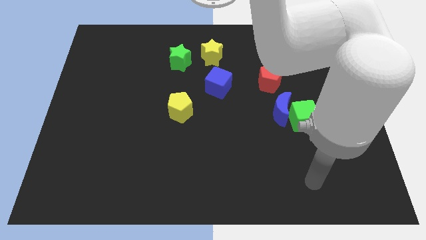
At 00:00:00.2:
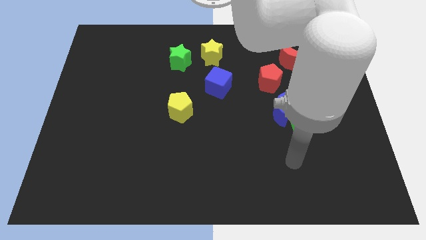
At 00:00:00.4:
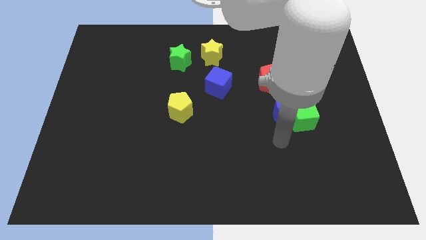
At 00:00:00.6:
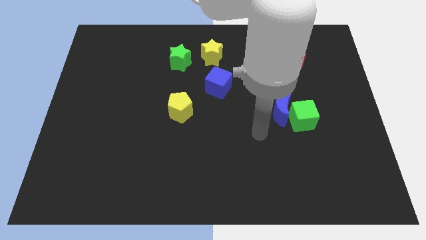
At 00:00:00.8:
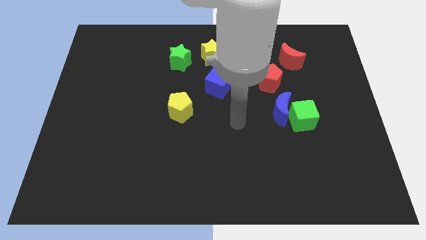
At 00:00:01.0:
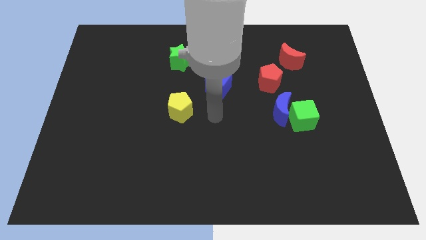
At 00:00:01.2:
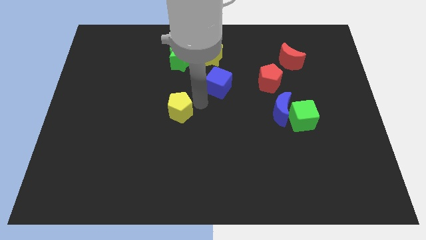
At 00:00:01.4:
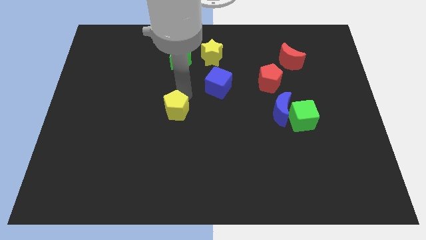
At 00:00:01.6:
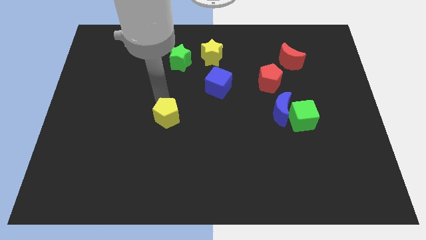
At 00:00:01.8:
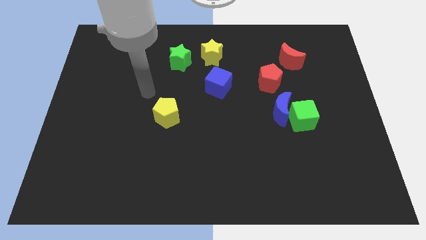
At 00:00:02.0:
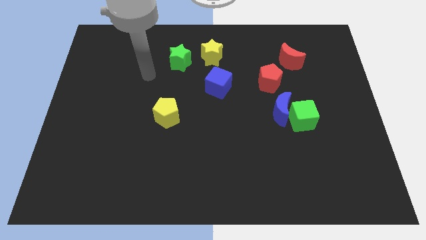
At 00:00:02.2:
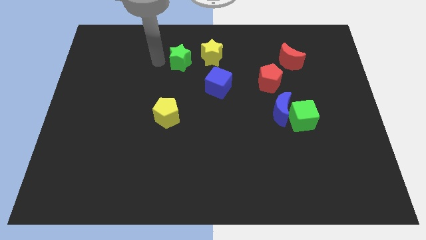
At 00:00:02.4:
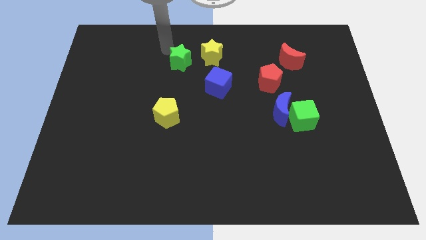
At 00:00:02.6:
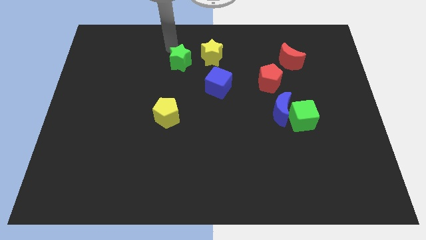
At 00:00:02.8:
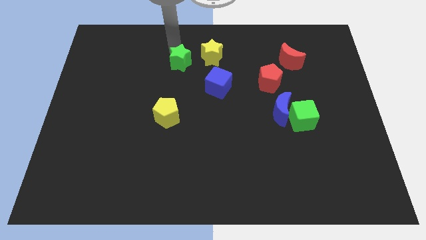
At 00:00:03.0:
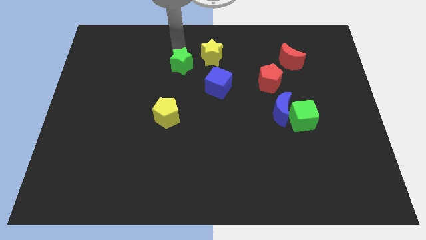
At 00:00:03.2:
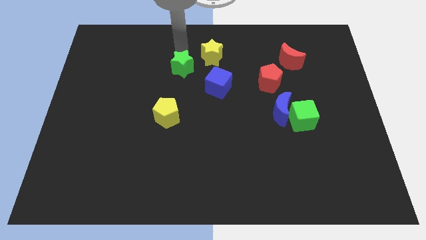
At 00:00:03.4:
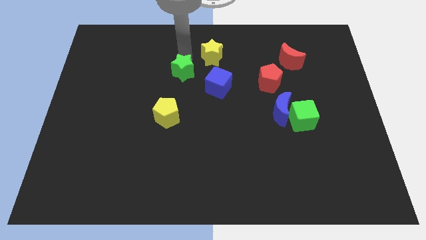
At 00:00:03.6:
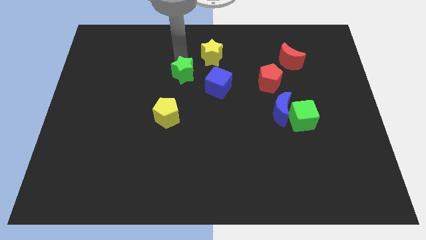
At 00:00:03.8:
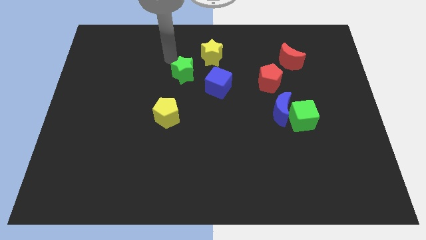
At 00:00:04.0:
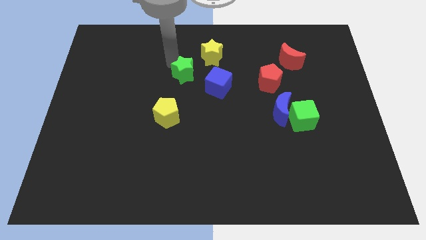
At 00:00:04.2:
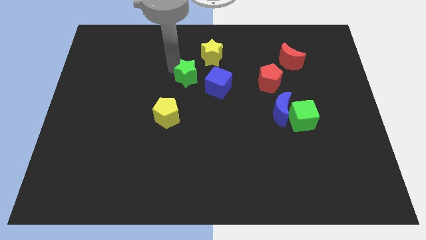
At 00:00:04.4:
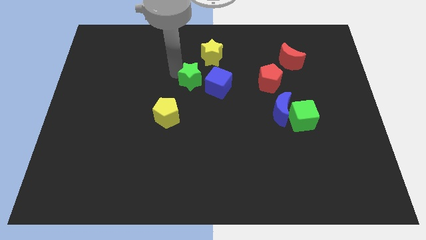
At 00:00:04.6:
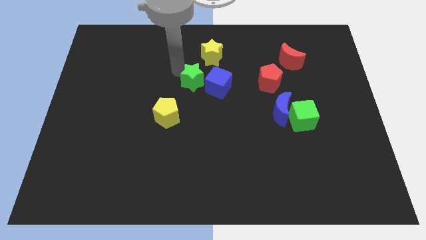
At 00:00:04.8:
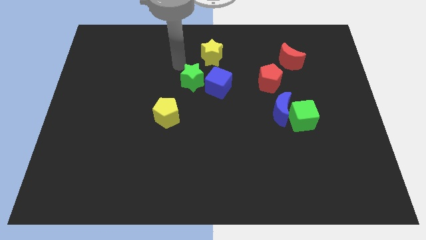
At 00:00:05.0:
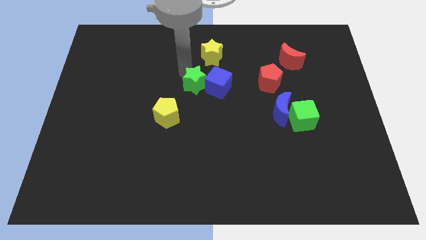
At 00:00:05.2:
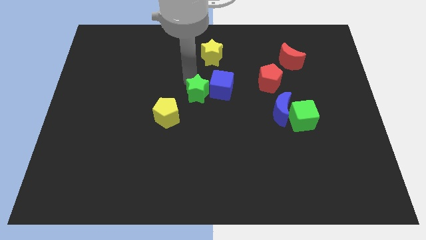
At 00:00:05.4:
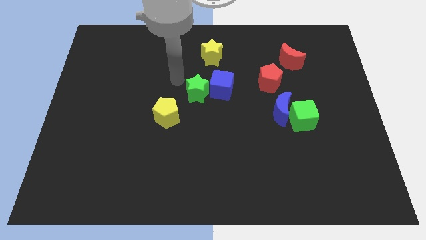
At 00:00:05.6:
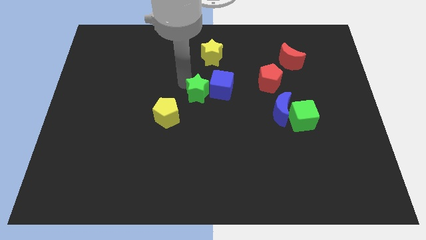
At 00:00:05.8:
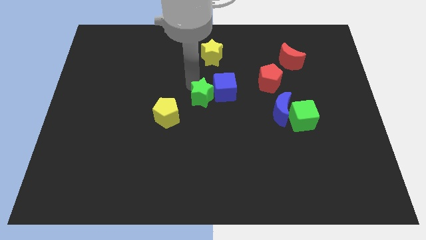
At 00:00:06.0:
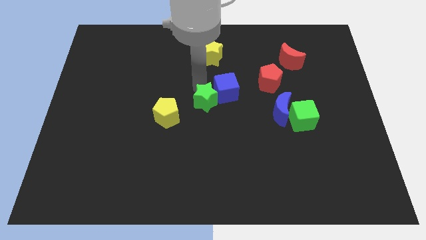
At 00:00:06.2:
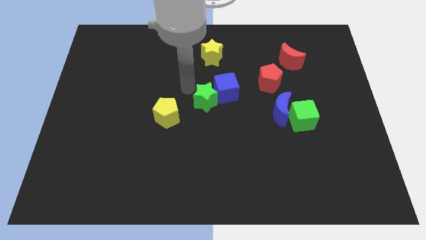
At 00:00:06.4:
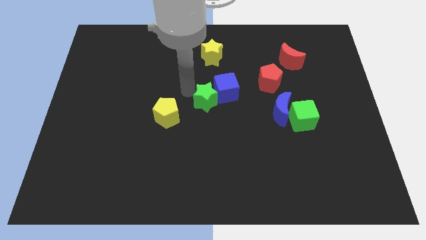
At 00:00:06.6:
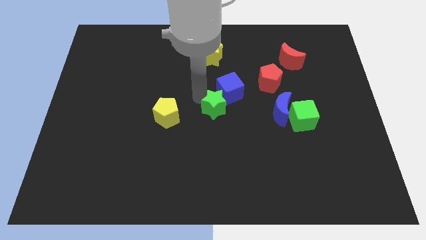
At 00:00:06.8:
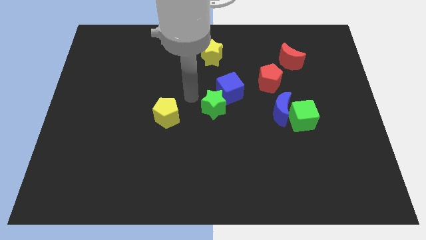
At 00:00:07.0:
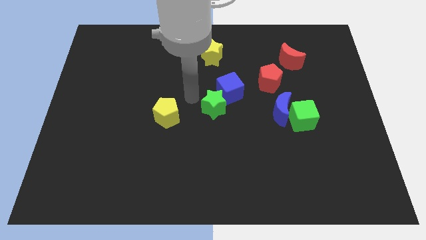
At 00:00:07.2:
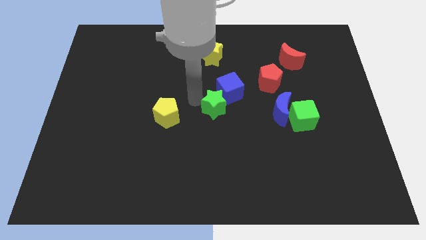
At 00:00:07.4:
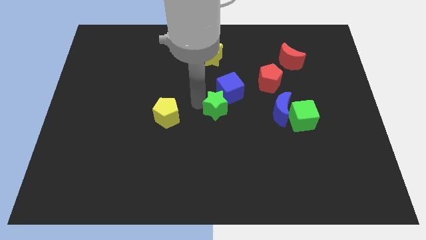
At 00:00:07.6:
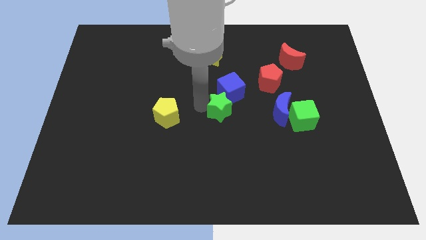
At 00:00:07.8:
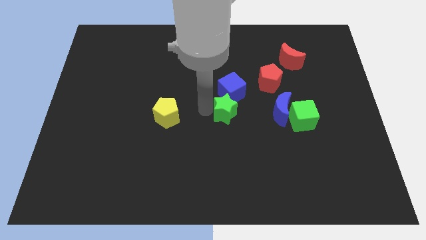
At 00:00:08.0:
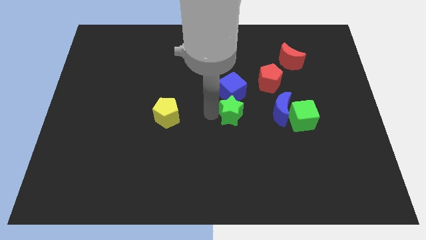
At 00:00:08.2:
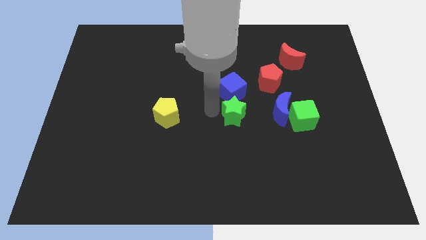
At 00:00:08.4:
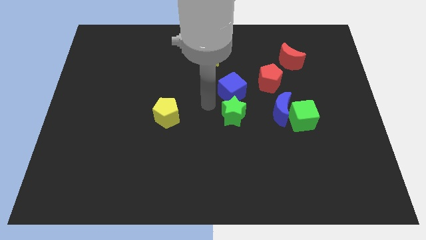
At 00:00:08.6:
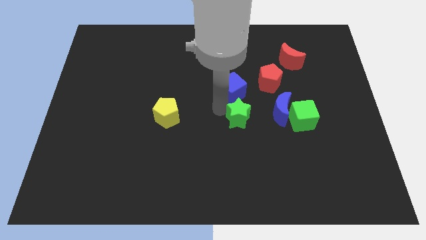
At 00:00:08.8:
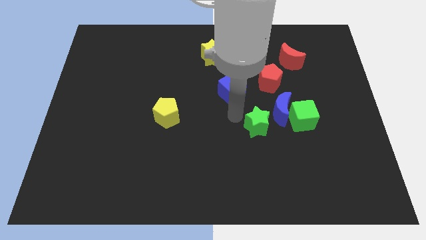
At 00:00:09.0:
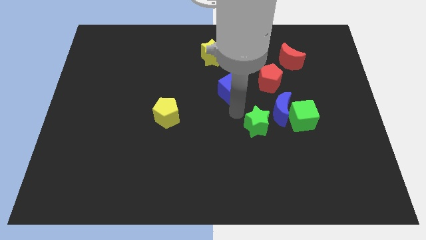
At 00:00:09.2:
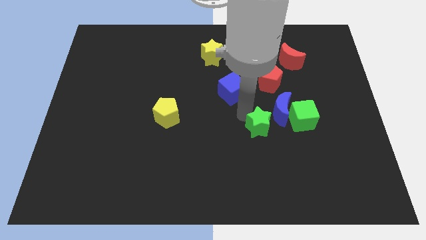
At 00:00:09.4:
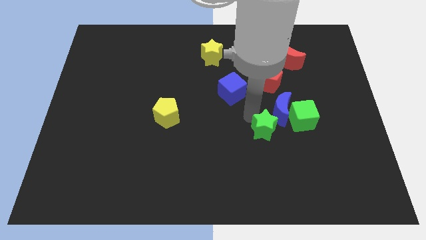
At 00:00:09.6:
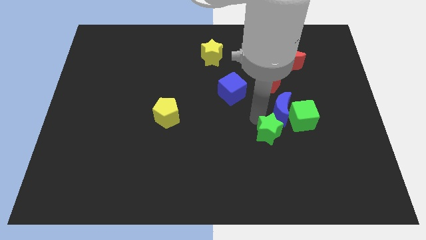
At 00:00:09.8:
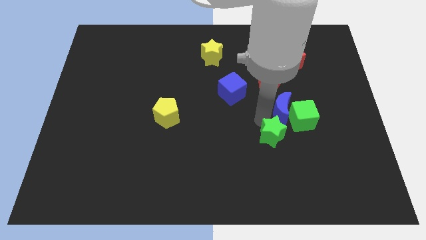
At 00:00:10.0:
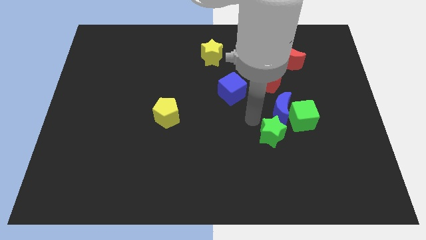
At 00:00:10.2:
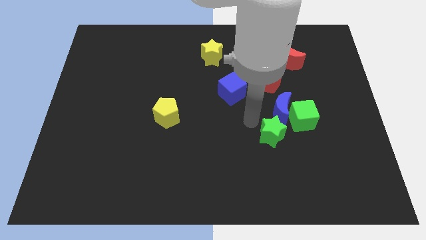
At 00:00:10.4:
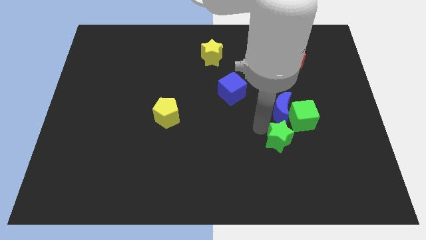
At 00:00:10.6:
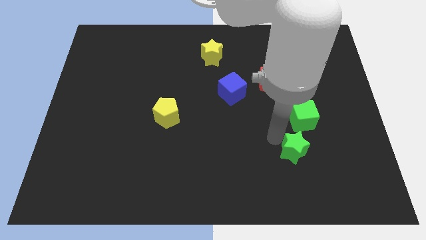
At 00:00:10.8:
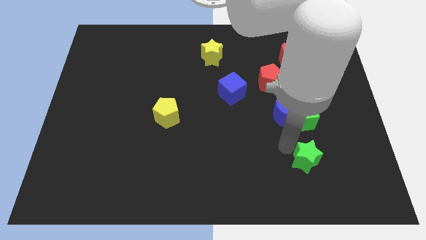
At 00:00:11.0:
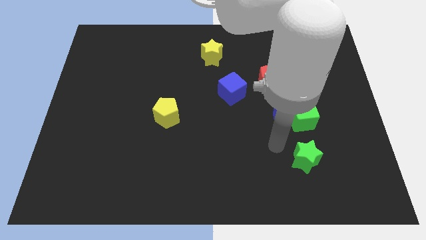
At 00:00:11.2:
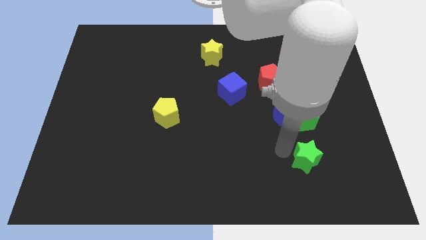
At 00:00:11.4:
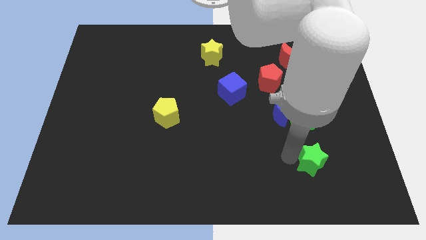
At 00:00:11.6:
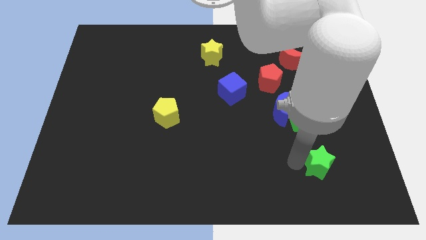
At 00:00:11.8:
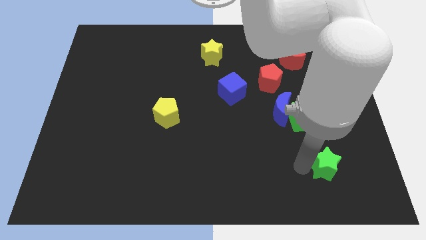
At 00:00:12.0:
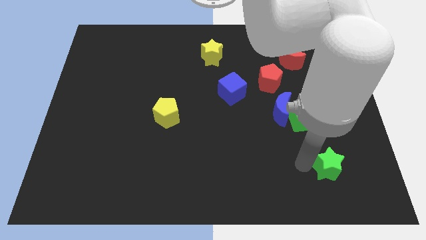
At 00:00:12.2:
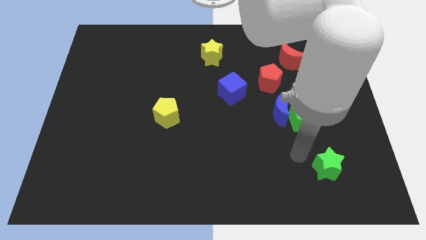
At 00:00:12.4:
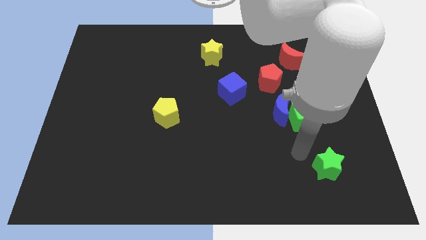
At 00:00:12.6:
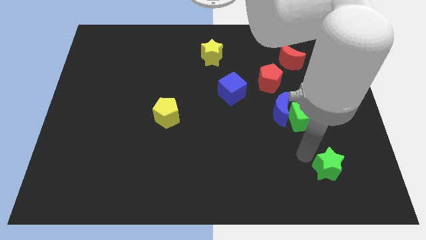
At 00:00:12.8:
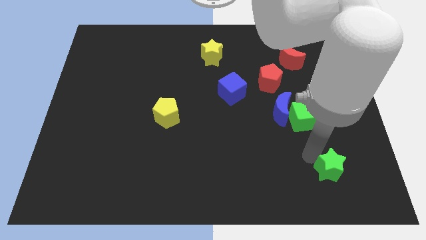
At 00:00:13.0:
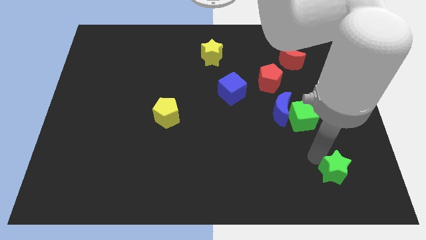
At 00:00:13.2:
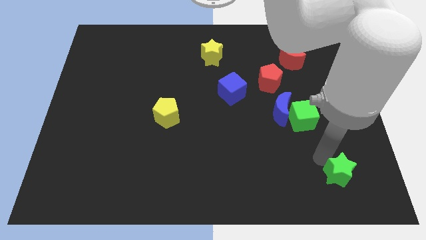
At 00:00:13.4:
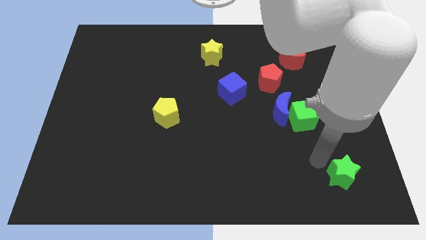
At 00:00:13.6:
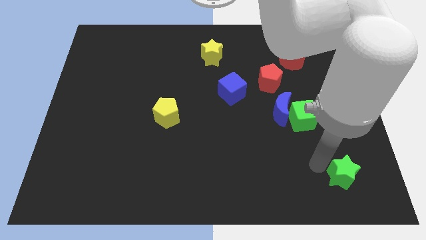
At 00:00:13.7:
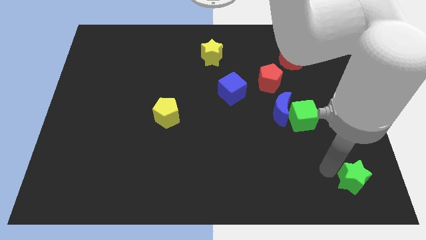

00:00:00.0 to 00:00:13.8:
put the green star to the bottom right
